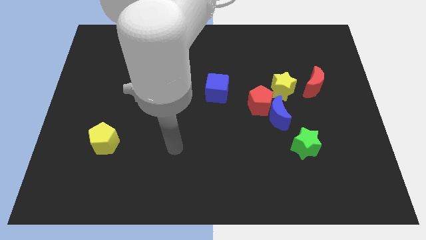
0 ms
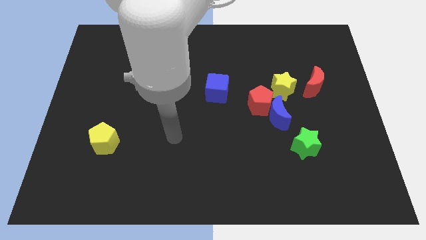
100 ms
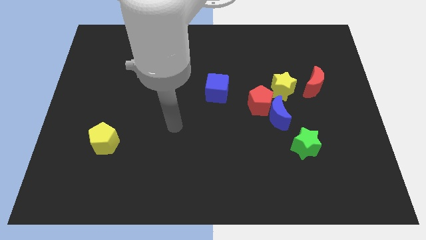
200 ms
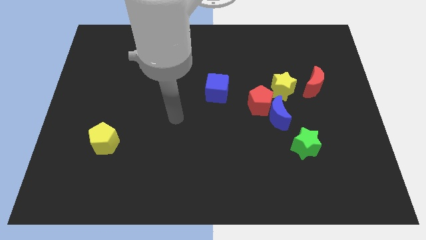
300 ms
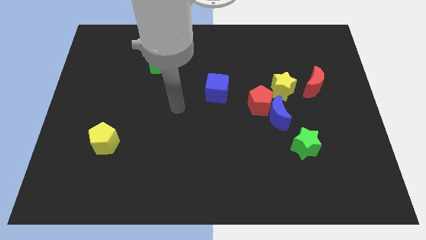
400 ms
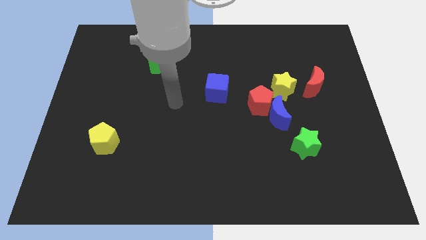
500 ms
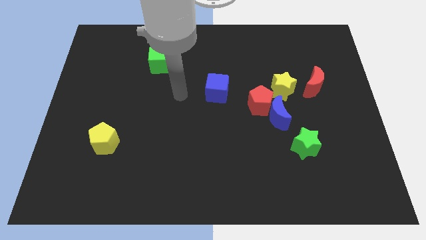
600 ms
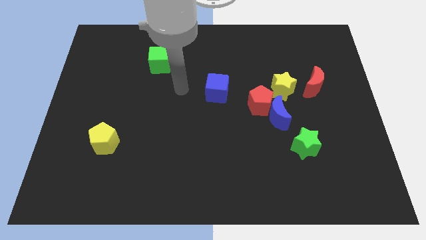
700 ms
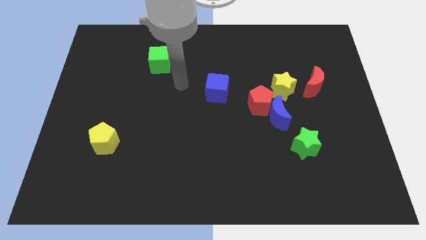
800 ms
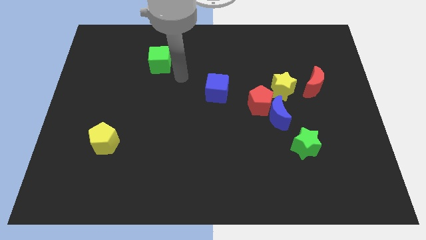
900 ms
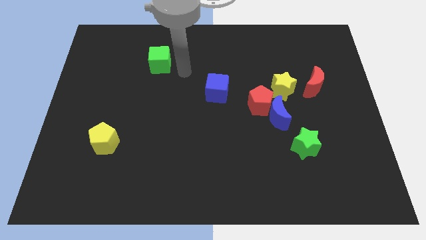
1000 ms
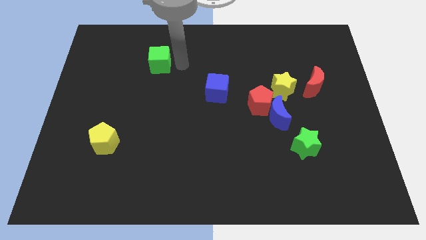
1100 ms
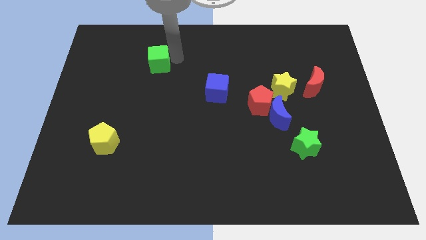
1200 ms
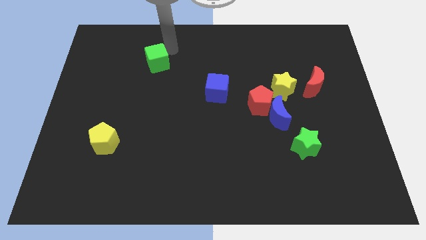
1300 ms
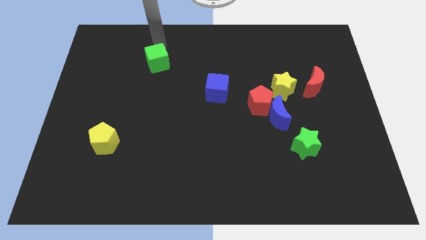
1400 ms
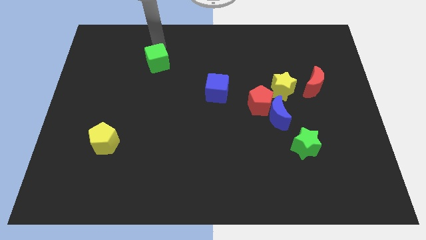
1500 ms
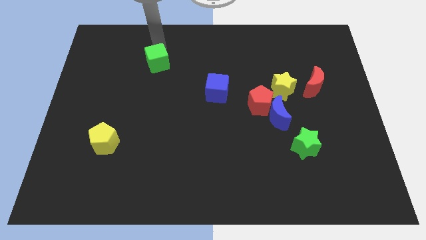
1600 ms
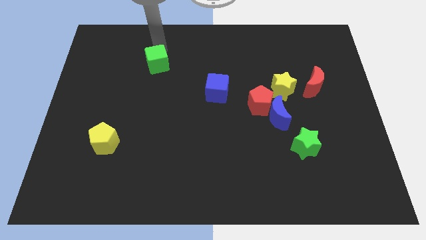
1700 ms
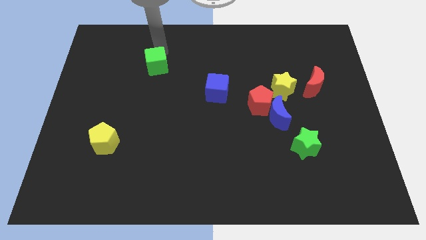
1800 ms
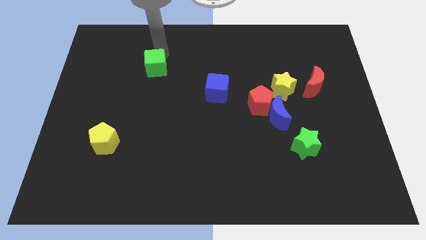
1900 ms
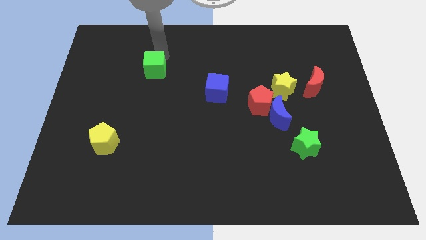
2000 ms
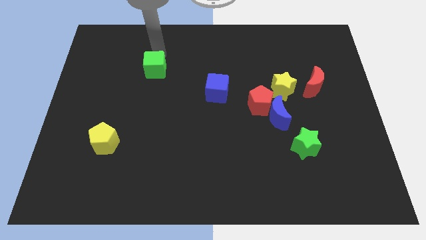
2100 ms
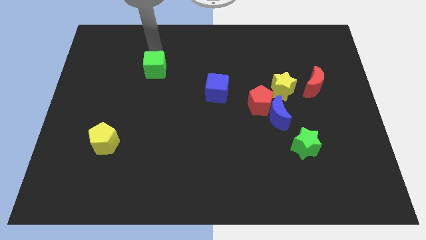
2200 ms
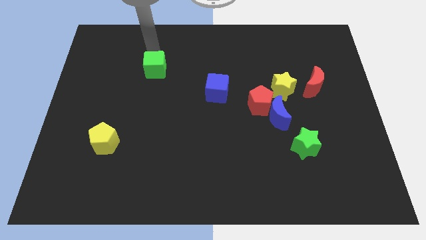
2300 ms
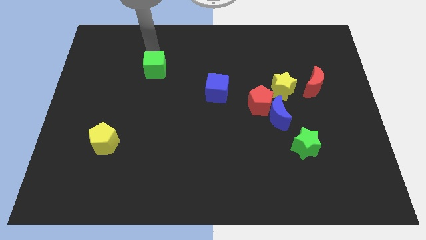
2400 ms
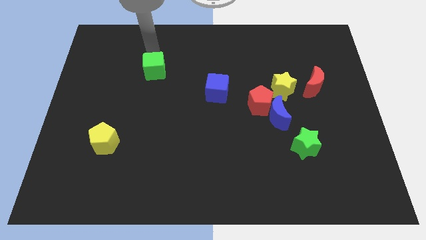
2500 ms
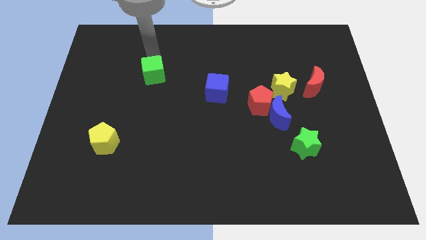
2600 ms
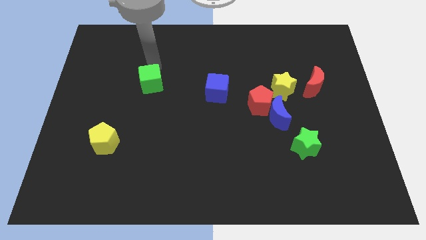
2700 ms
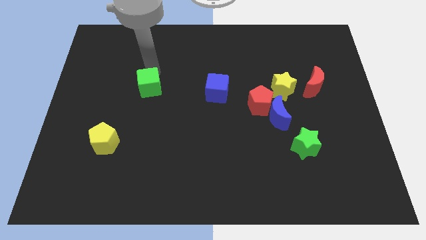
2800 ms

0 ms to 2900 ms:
slightly move the green cube down

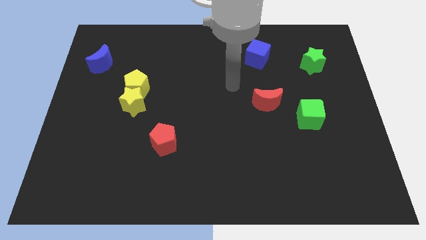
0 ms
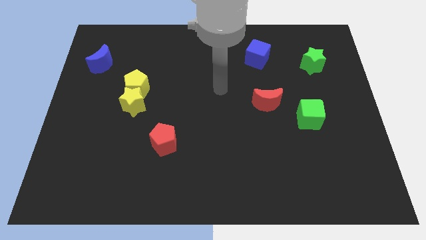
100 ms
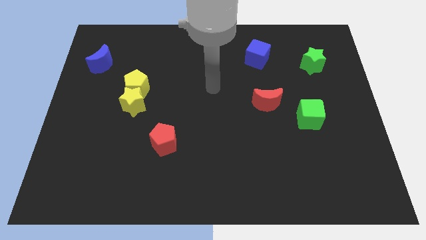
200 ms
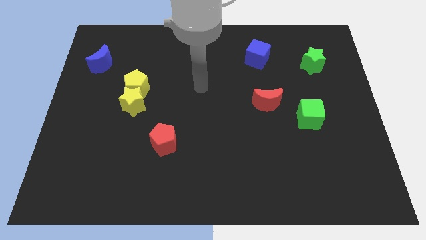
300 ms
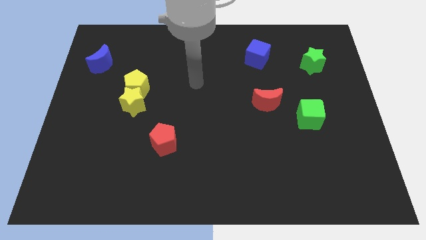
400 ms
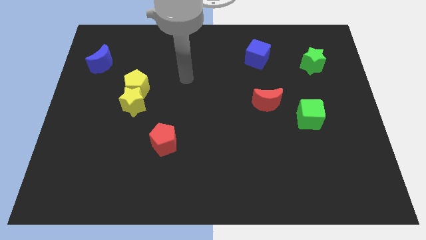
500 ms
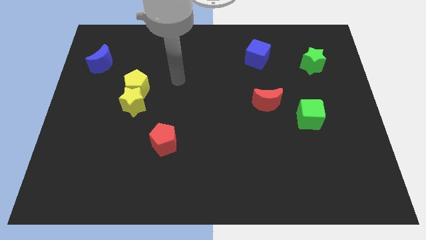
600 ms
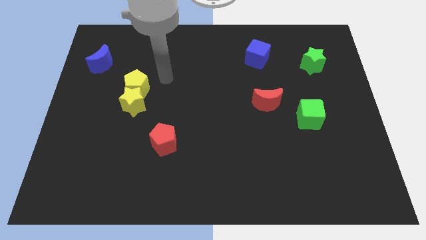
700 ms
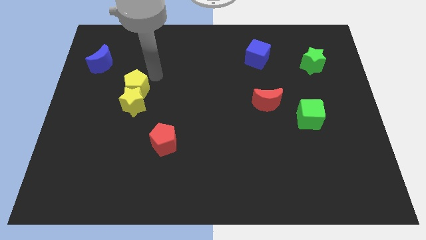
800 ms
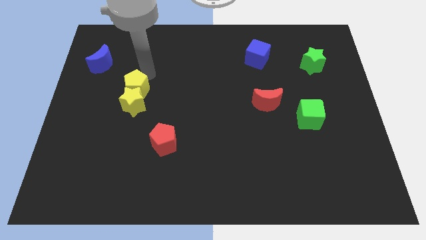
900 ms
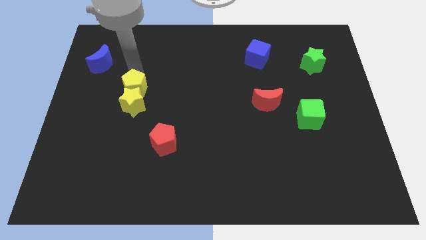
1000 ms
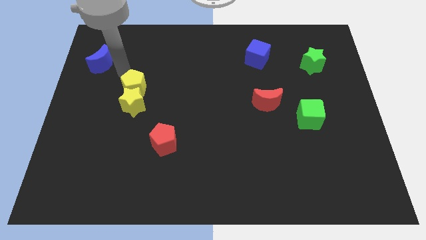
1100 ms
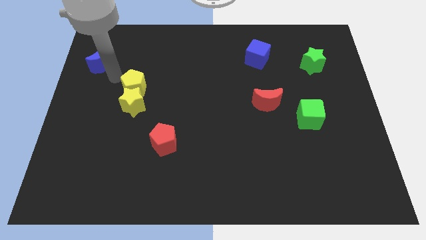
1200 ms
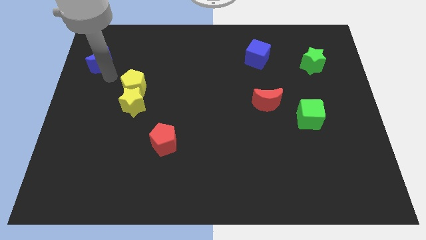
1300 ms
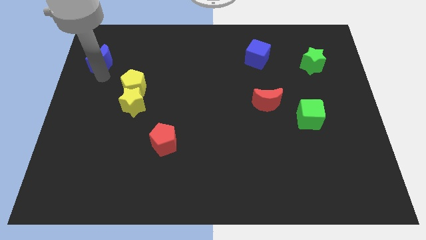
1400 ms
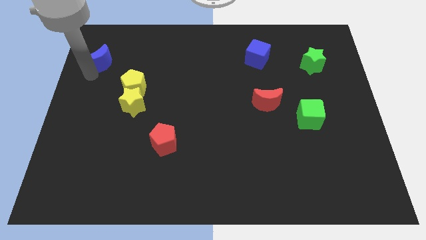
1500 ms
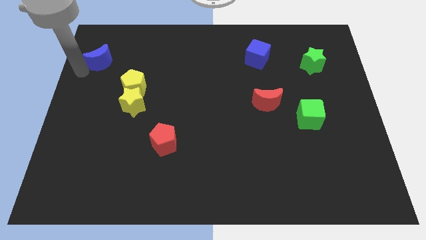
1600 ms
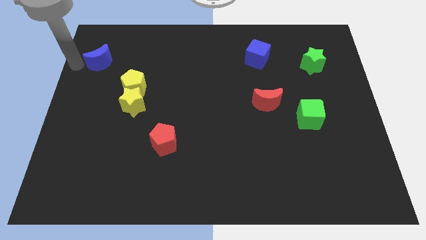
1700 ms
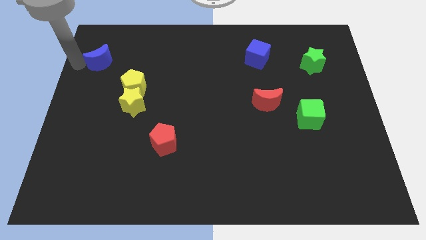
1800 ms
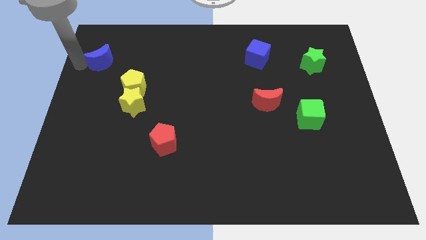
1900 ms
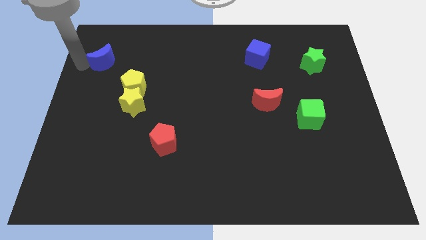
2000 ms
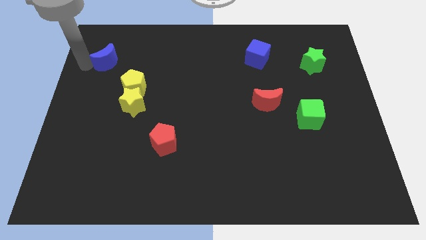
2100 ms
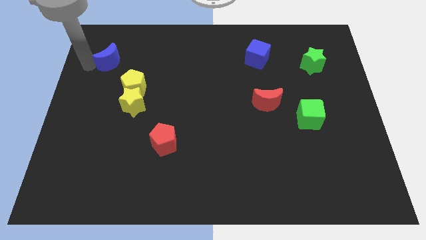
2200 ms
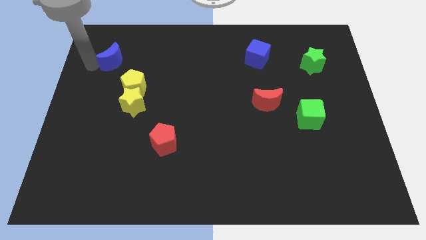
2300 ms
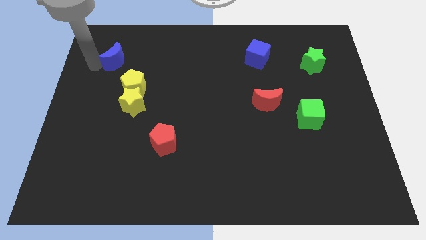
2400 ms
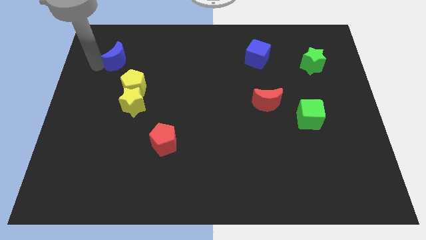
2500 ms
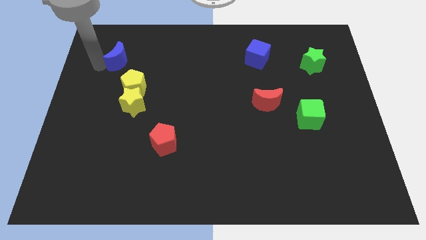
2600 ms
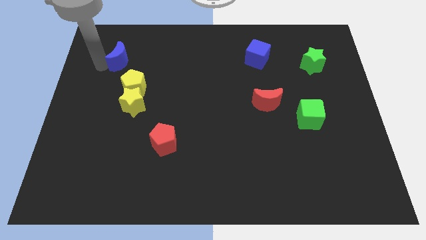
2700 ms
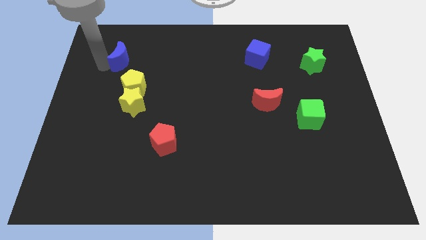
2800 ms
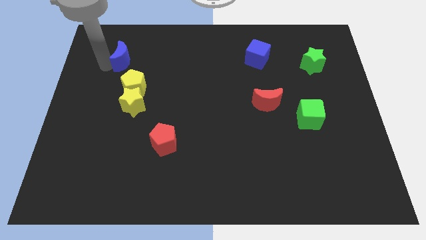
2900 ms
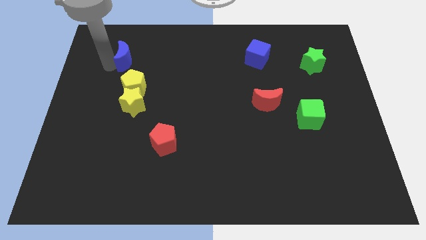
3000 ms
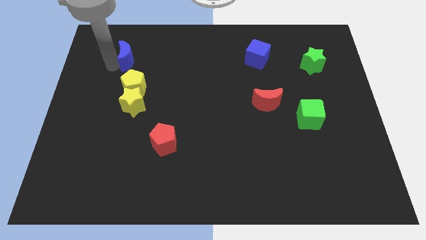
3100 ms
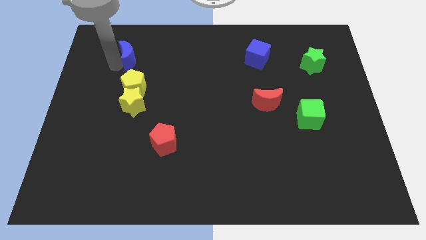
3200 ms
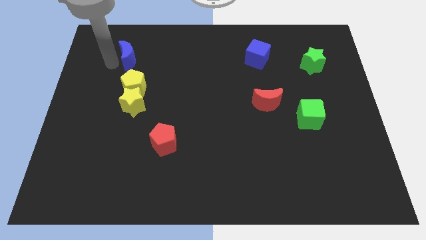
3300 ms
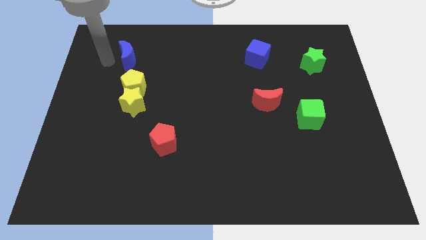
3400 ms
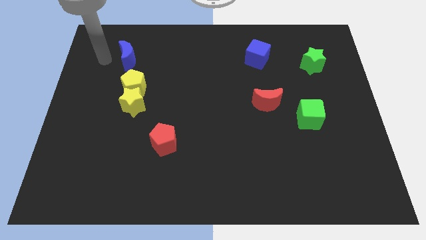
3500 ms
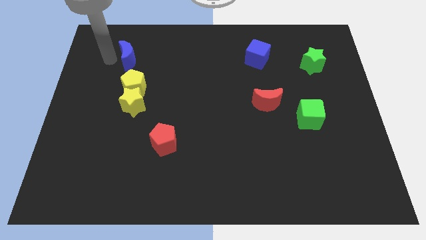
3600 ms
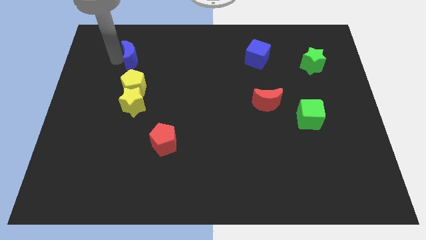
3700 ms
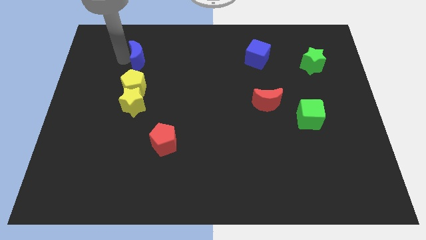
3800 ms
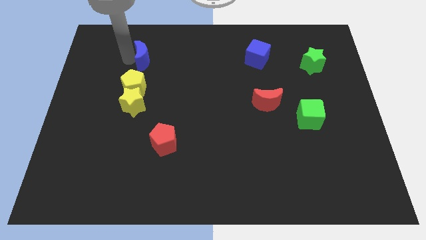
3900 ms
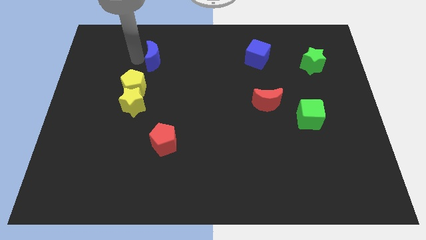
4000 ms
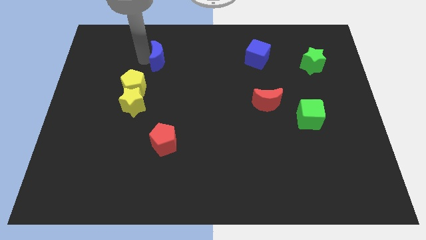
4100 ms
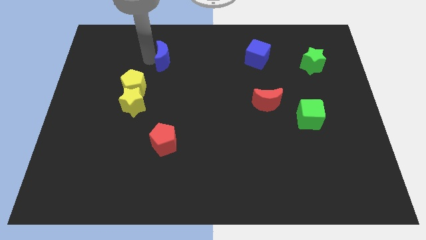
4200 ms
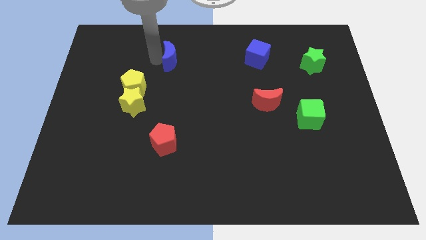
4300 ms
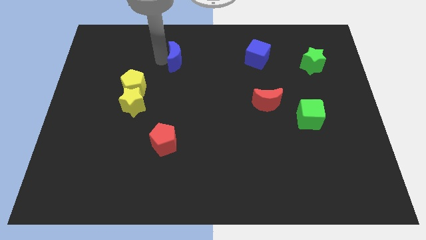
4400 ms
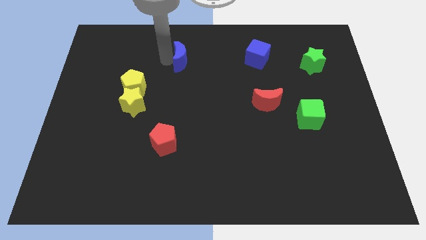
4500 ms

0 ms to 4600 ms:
move the blue moon to the right

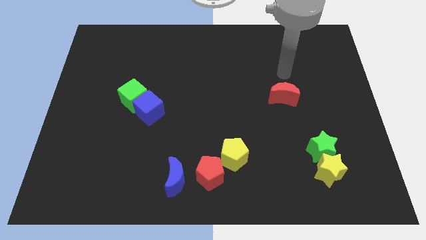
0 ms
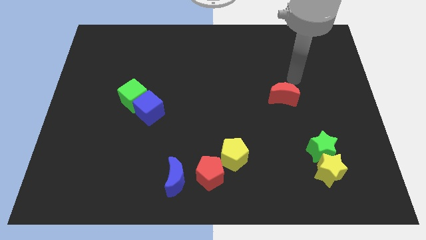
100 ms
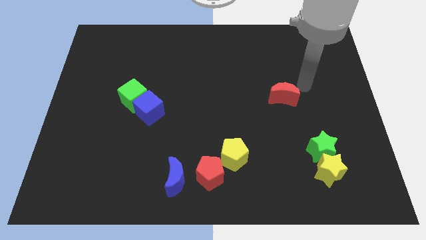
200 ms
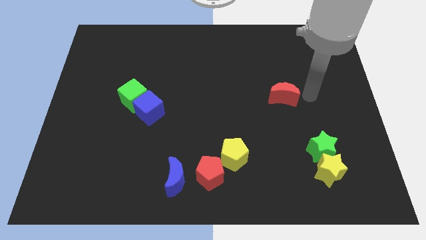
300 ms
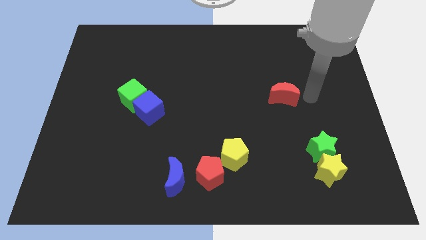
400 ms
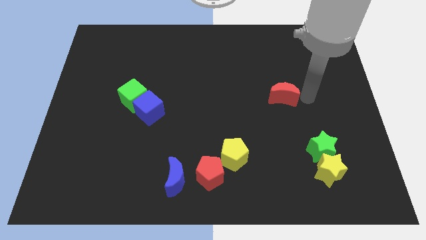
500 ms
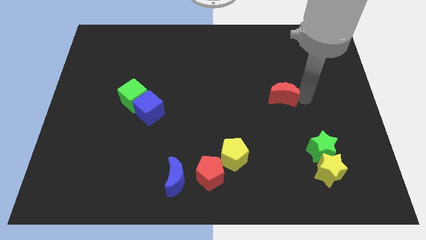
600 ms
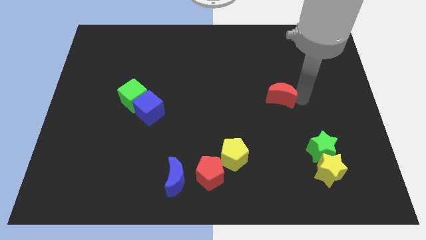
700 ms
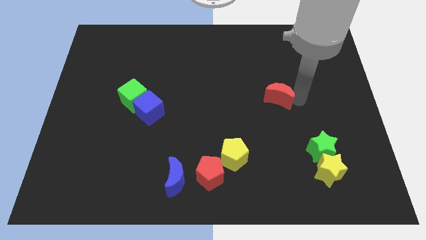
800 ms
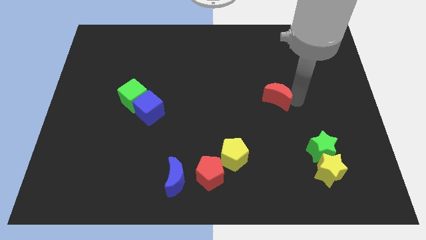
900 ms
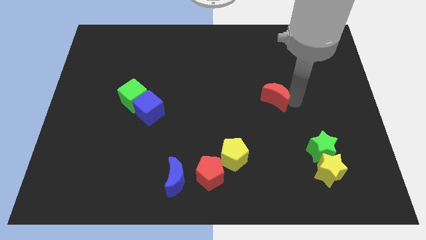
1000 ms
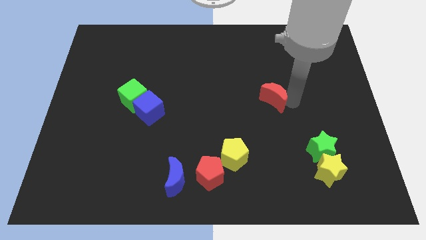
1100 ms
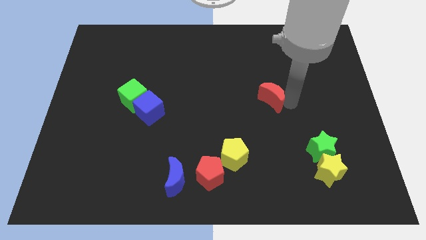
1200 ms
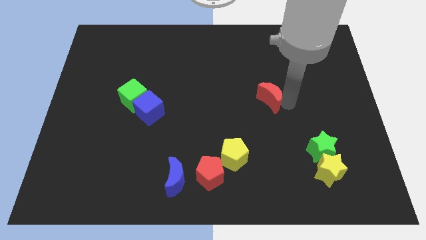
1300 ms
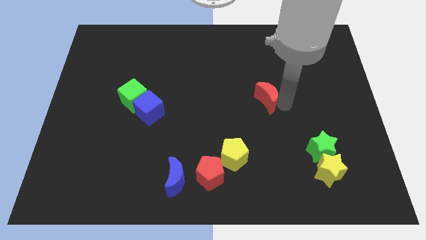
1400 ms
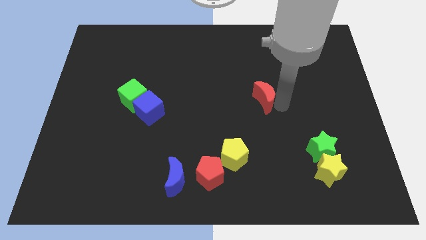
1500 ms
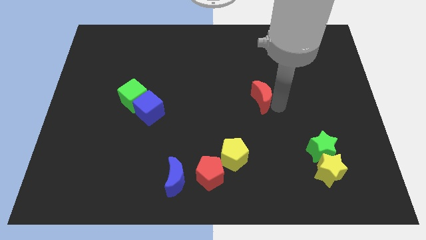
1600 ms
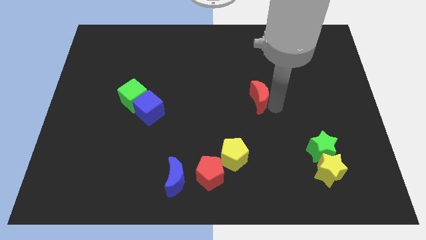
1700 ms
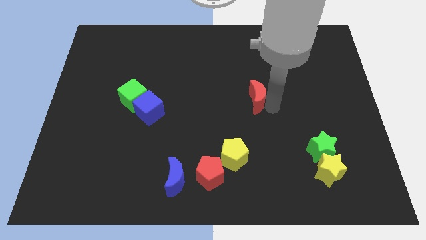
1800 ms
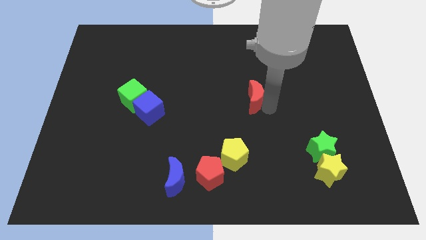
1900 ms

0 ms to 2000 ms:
slide the red moon left a little bit
